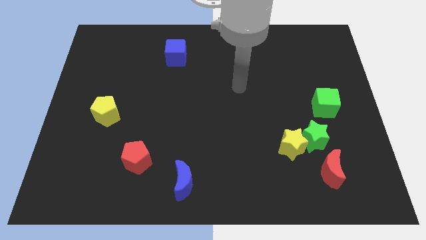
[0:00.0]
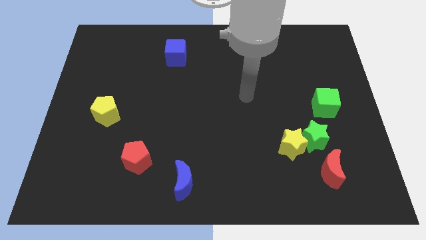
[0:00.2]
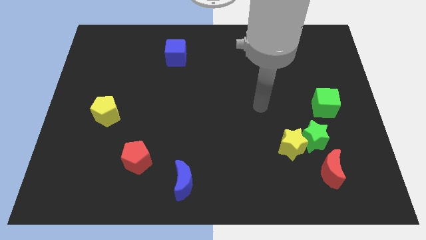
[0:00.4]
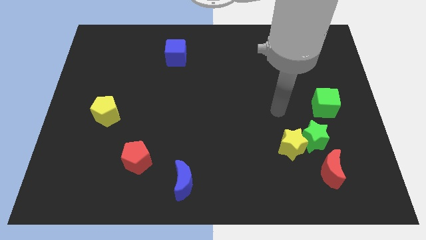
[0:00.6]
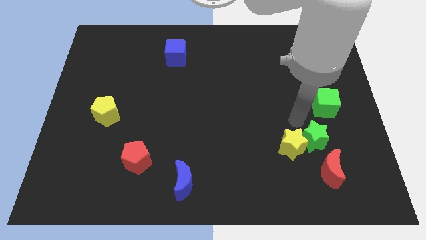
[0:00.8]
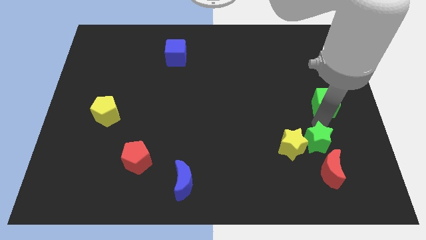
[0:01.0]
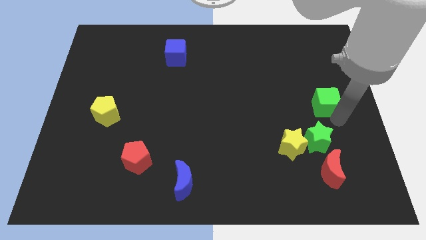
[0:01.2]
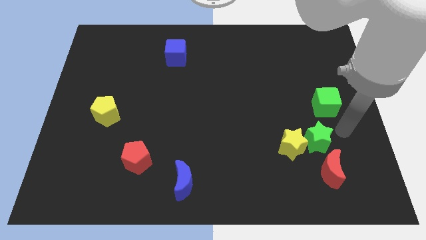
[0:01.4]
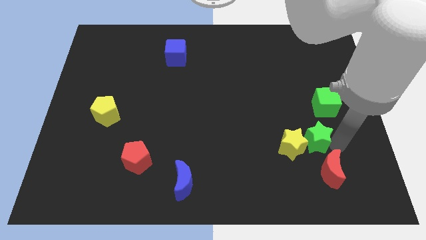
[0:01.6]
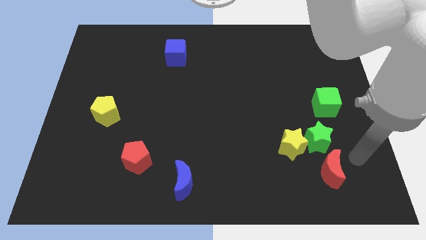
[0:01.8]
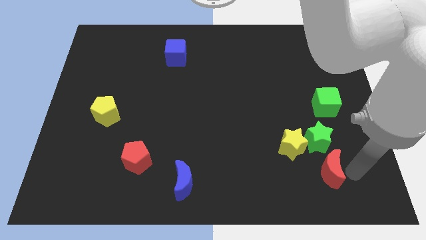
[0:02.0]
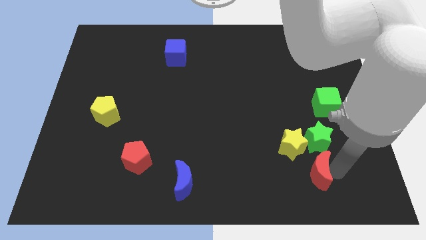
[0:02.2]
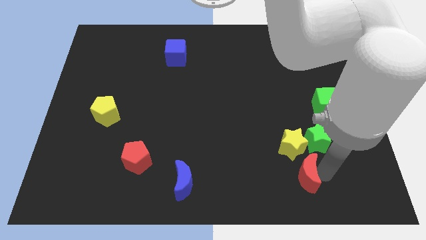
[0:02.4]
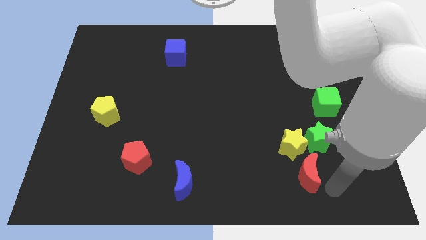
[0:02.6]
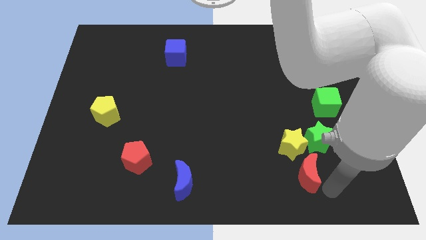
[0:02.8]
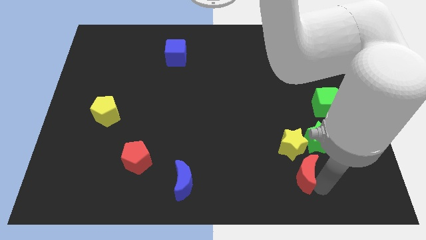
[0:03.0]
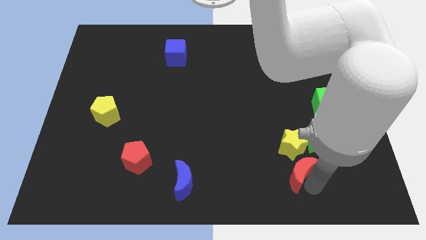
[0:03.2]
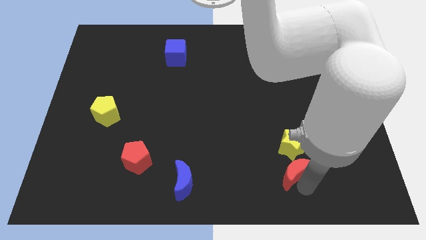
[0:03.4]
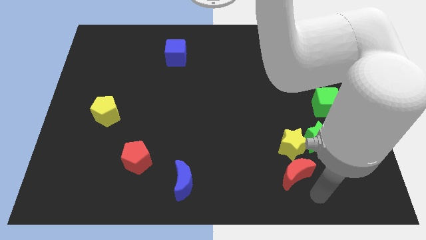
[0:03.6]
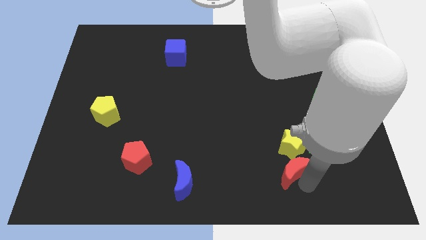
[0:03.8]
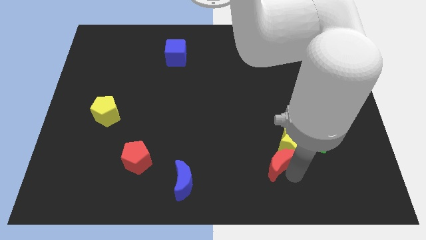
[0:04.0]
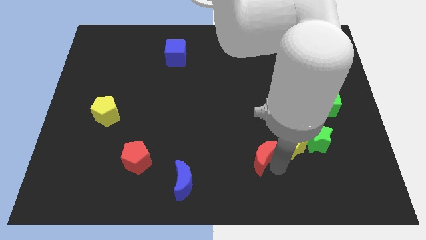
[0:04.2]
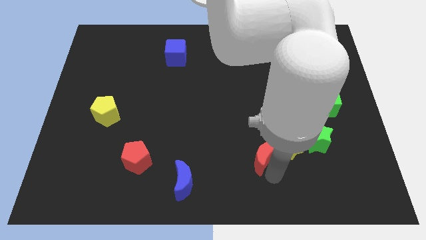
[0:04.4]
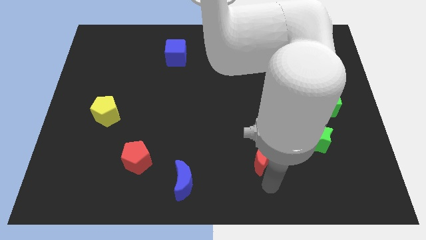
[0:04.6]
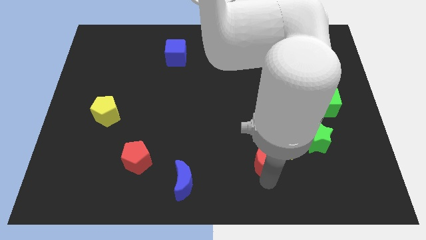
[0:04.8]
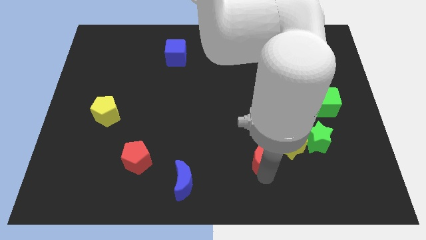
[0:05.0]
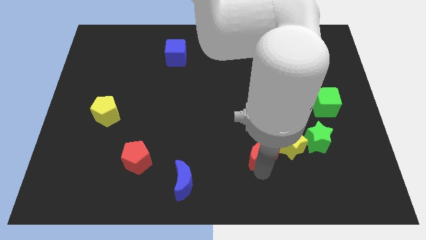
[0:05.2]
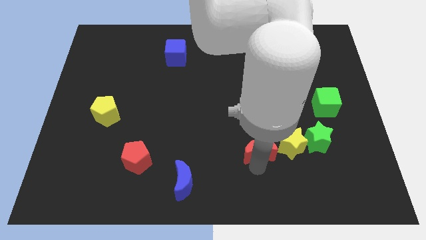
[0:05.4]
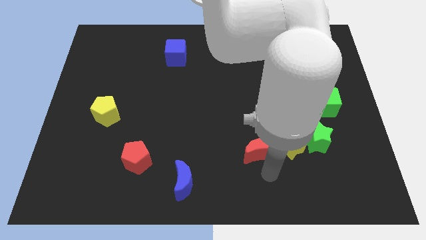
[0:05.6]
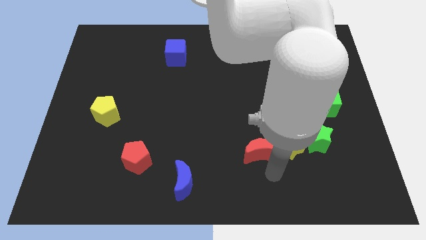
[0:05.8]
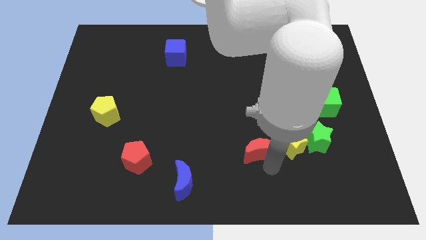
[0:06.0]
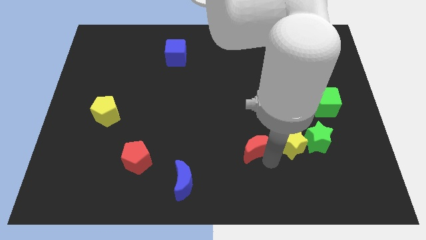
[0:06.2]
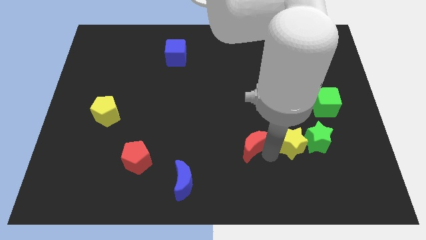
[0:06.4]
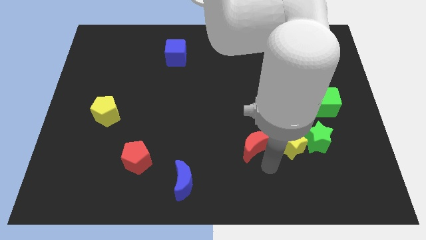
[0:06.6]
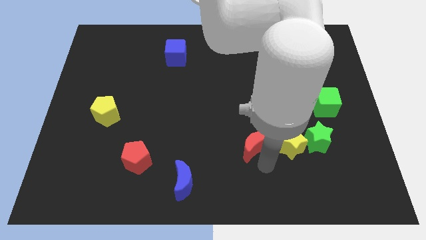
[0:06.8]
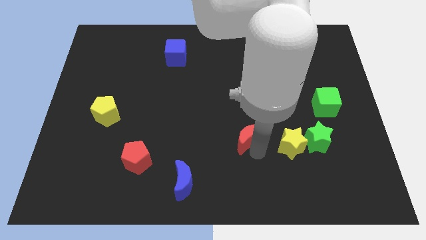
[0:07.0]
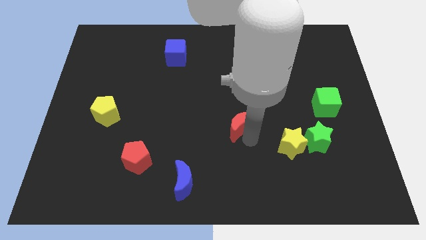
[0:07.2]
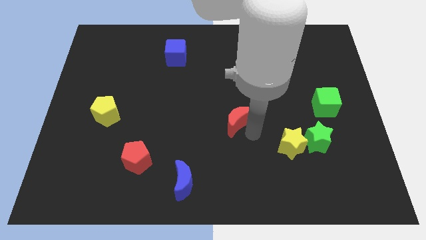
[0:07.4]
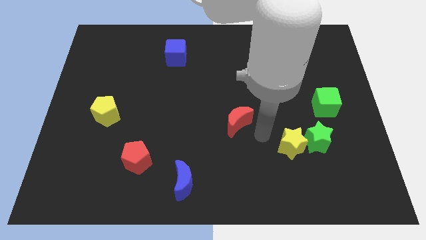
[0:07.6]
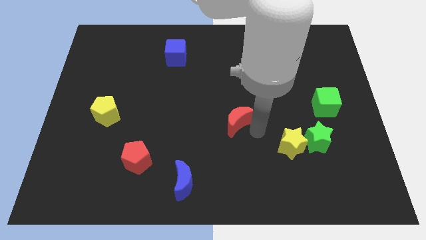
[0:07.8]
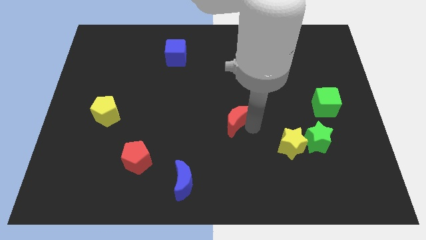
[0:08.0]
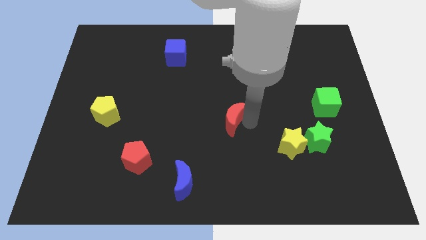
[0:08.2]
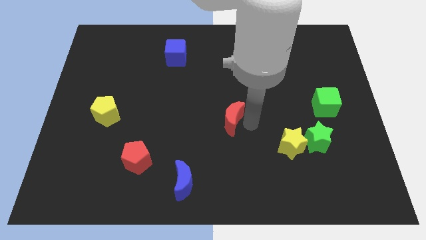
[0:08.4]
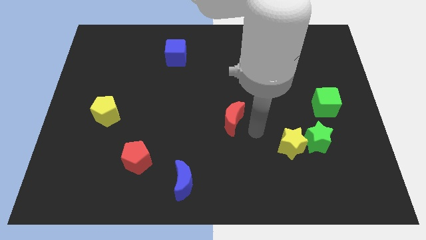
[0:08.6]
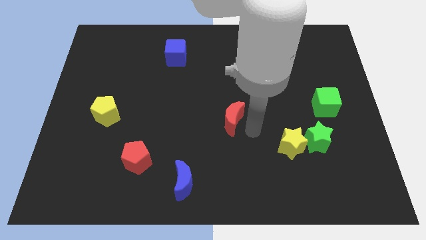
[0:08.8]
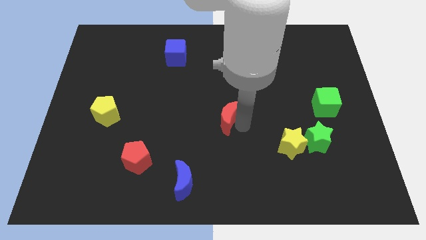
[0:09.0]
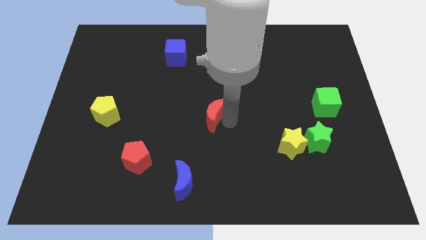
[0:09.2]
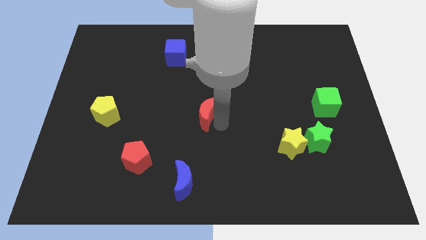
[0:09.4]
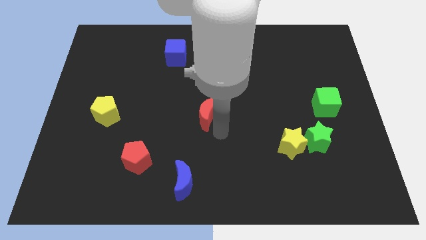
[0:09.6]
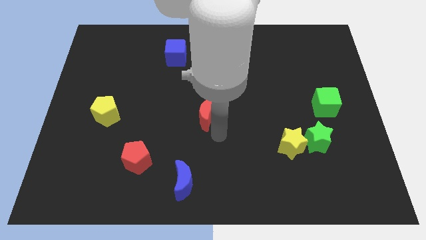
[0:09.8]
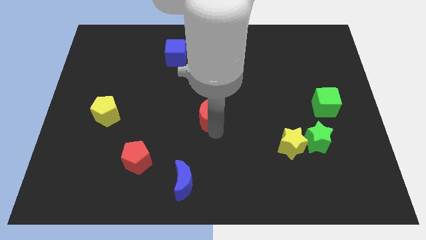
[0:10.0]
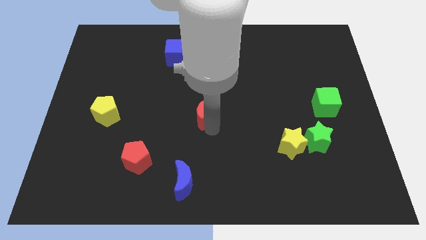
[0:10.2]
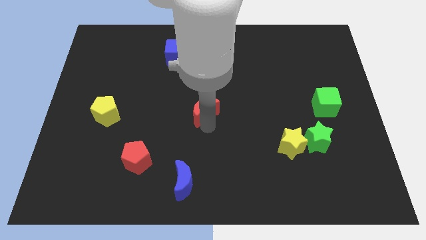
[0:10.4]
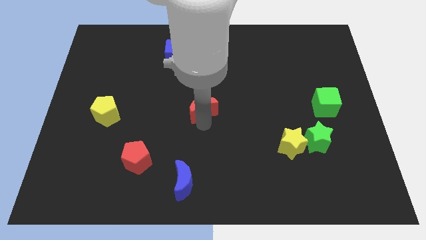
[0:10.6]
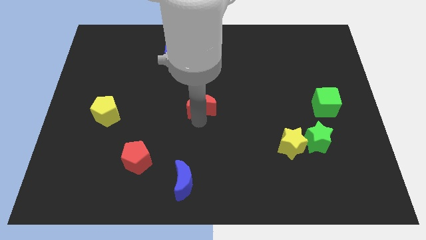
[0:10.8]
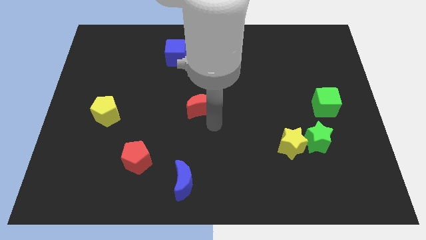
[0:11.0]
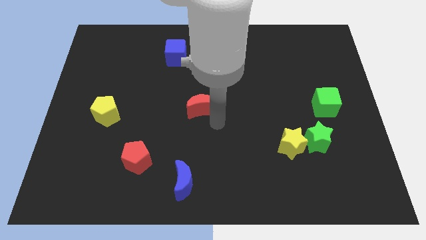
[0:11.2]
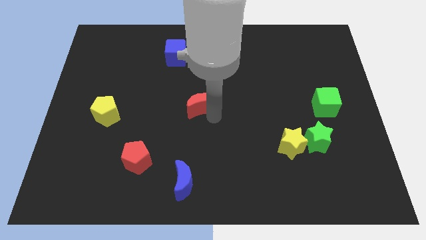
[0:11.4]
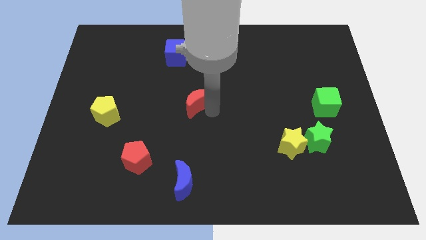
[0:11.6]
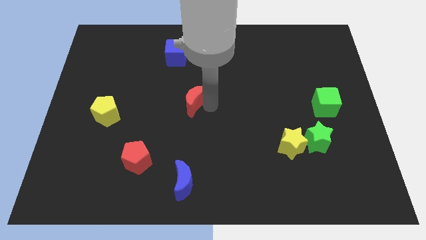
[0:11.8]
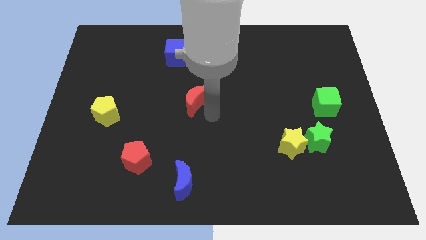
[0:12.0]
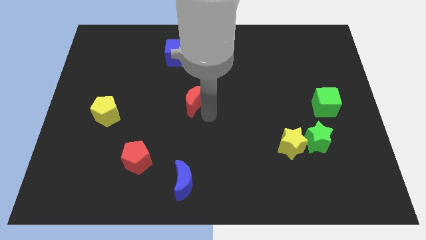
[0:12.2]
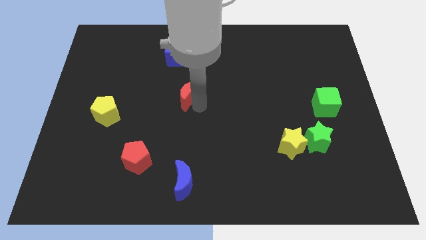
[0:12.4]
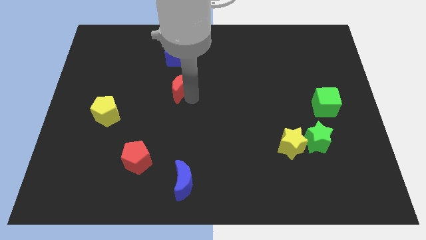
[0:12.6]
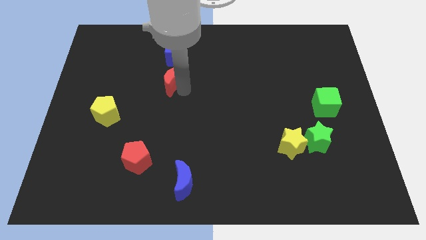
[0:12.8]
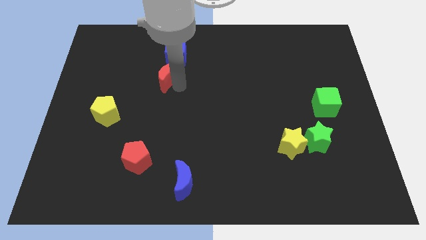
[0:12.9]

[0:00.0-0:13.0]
move the red moon to the bottom left of the blue cube
